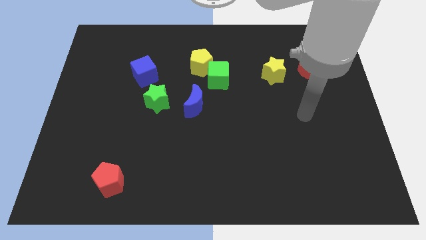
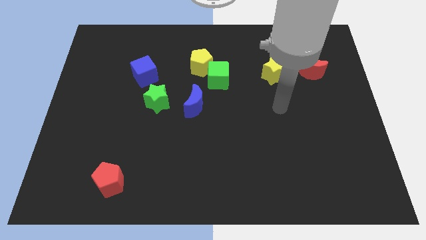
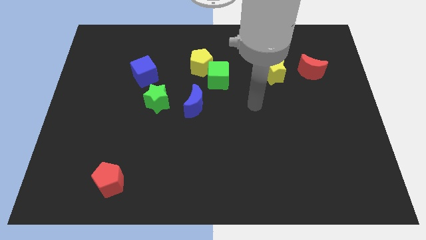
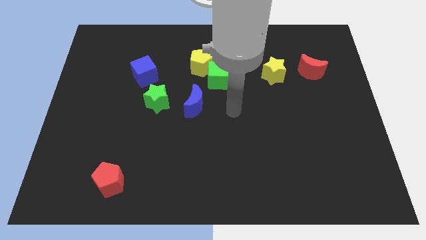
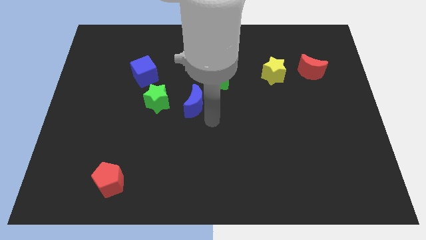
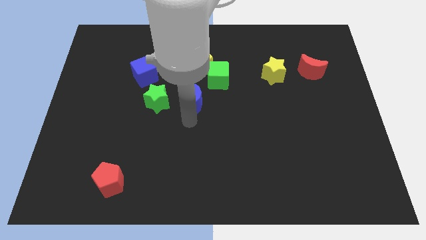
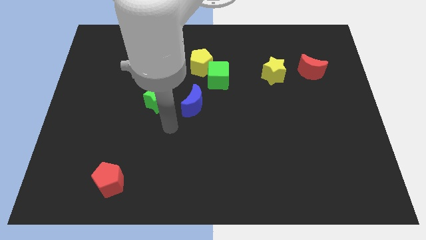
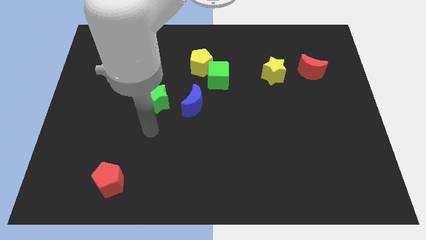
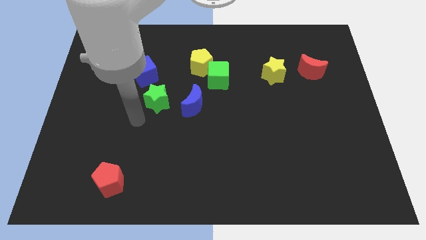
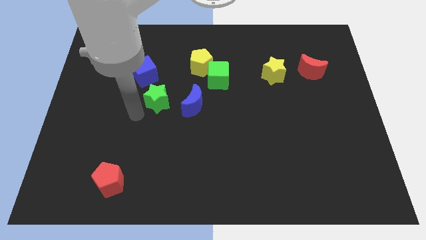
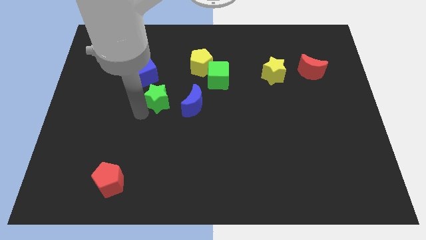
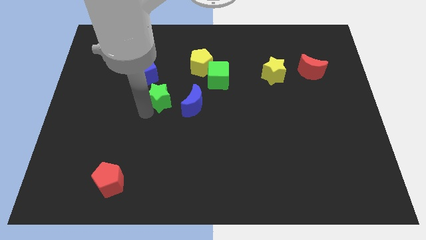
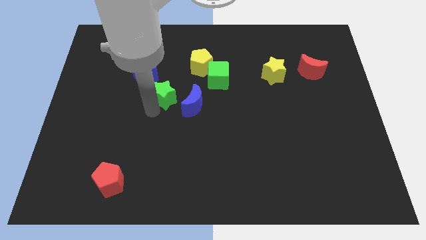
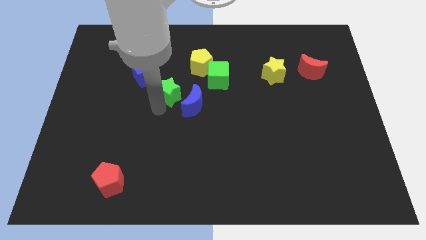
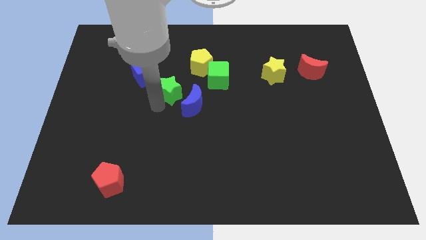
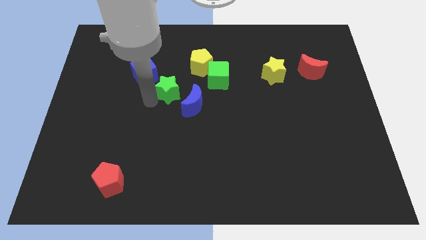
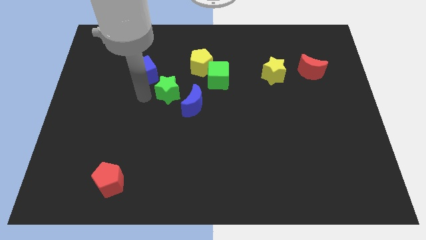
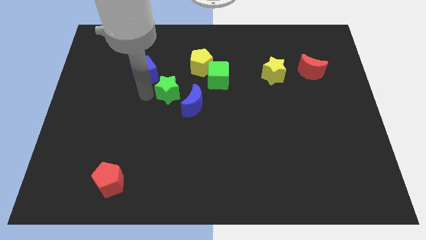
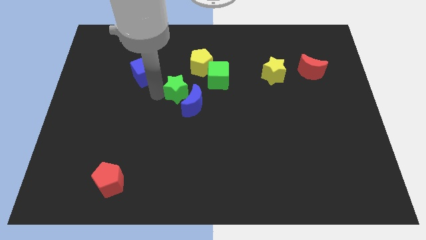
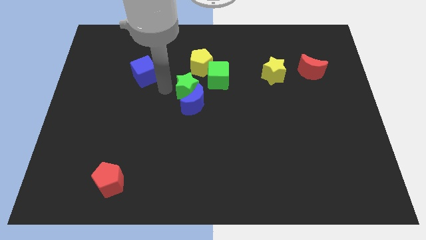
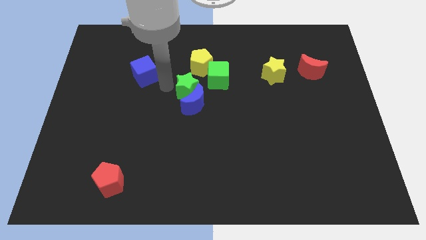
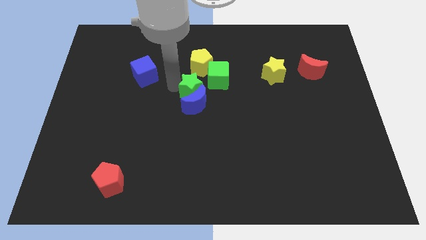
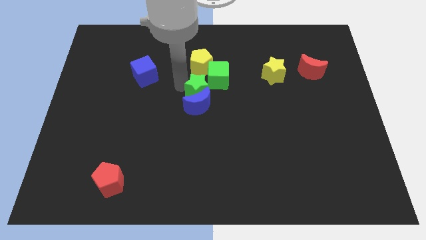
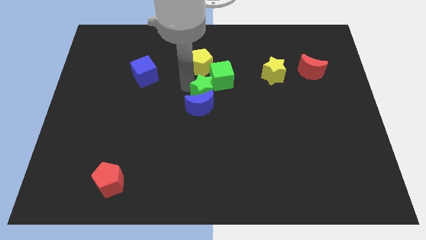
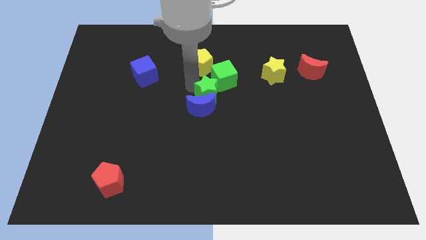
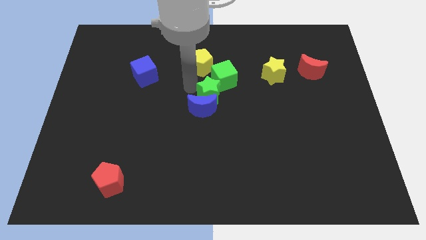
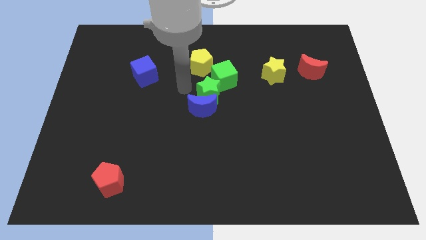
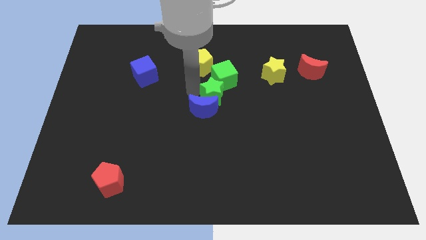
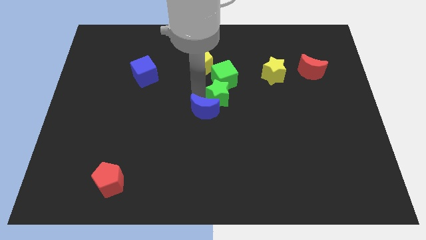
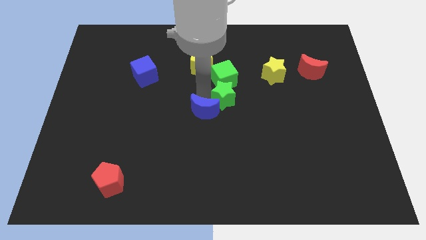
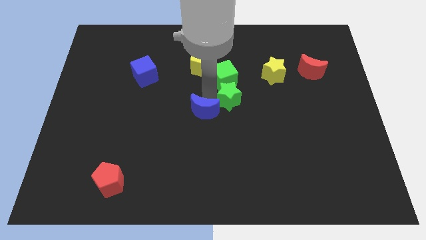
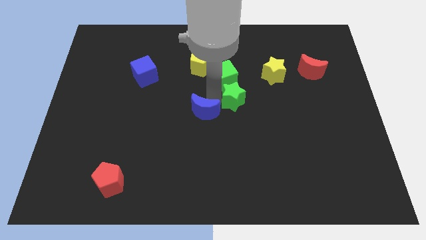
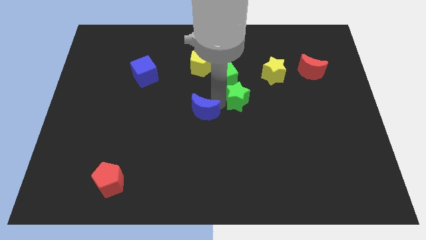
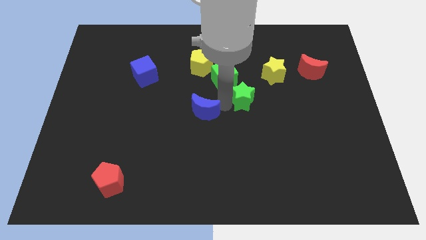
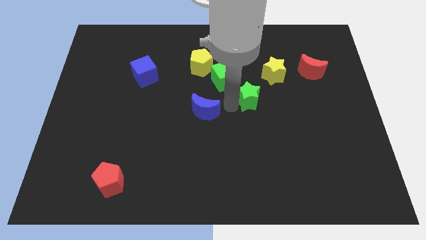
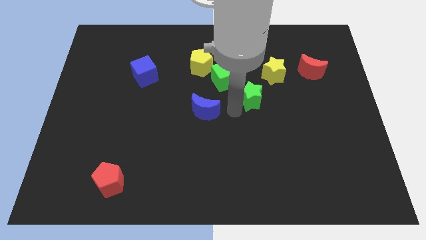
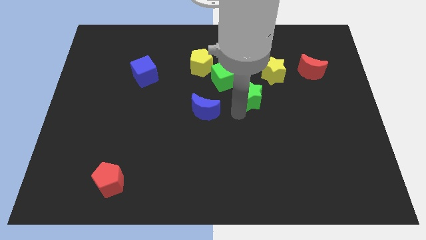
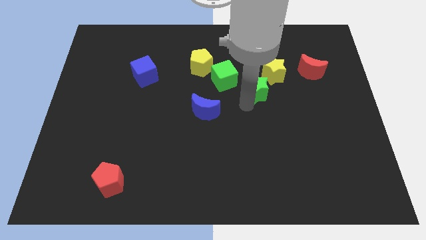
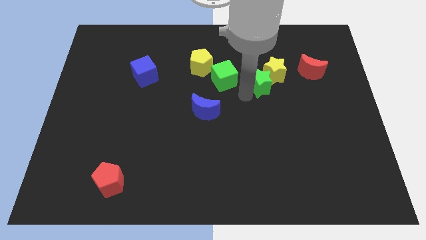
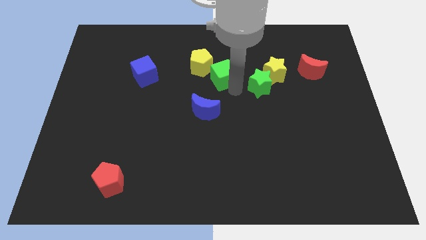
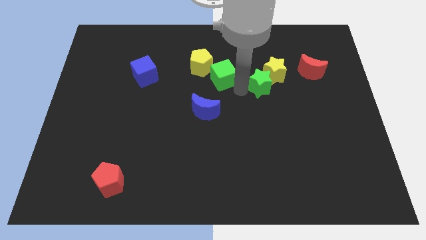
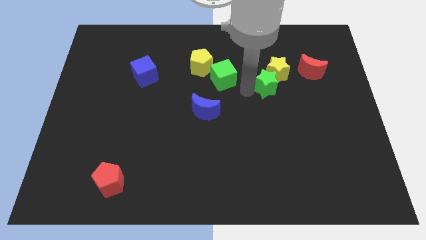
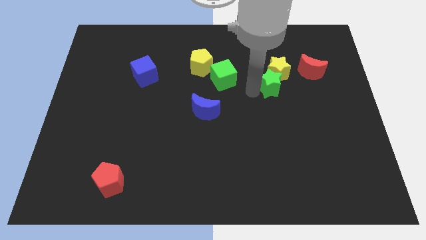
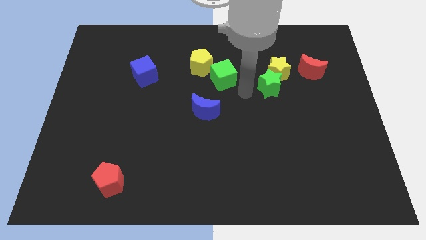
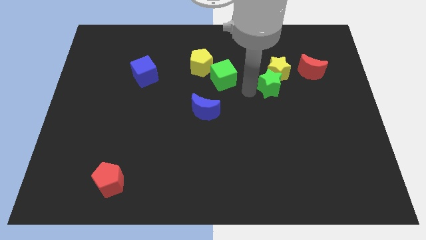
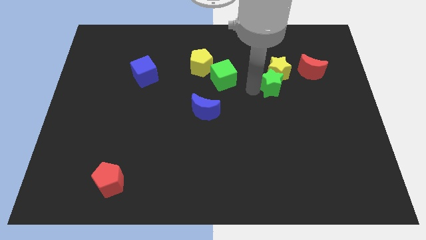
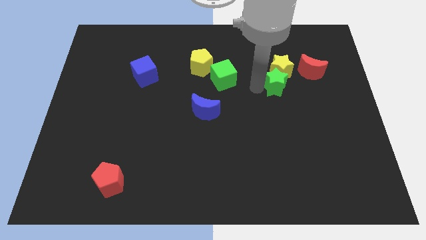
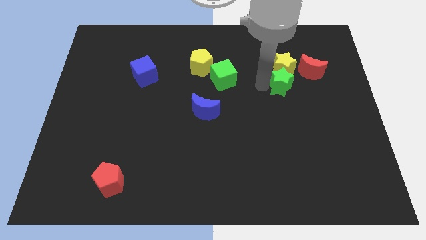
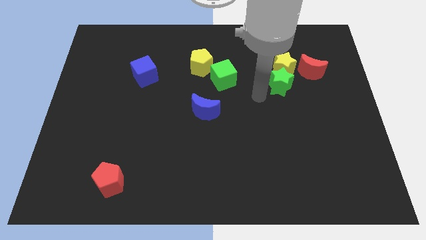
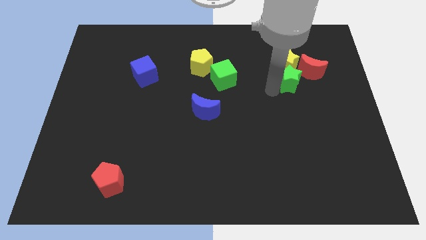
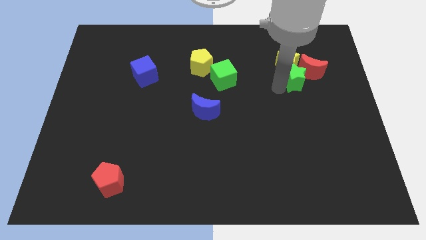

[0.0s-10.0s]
push the green star close to the red moon

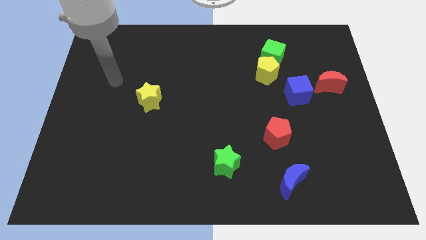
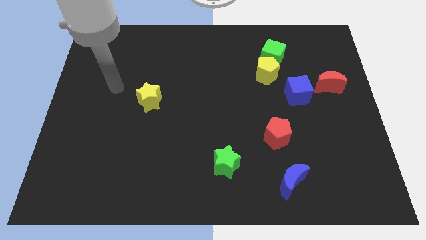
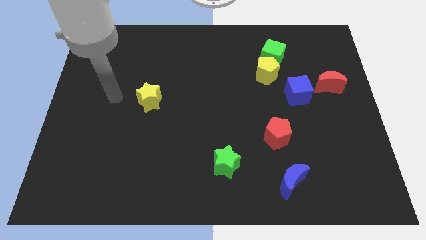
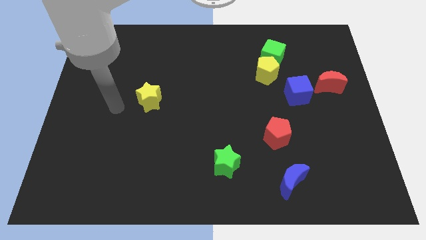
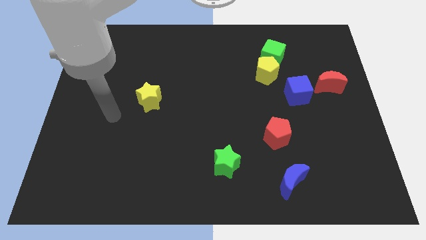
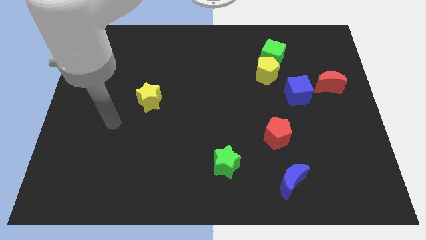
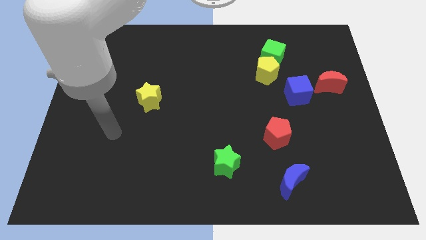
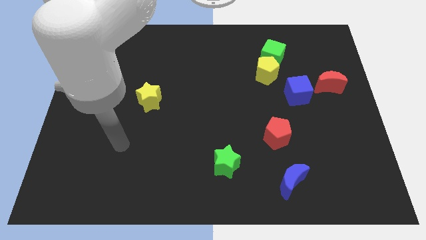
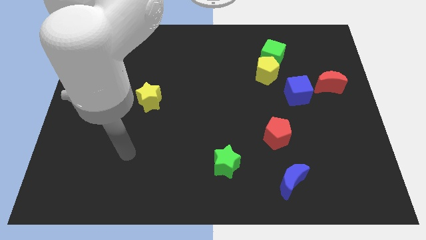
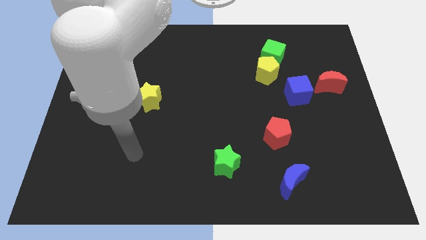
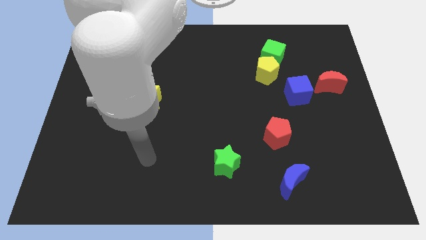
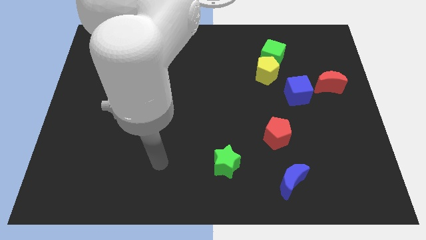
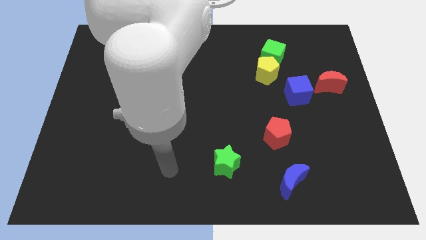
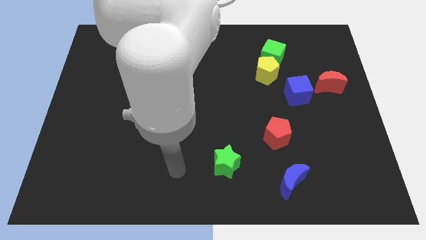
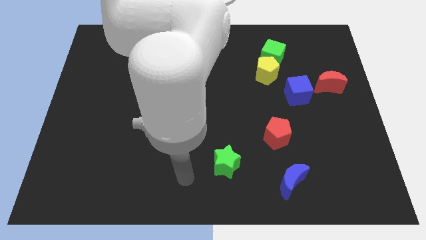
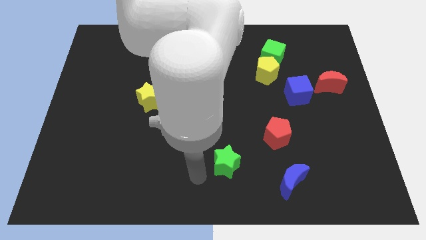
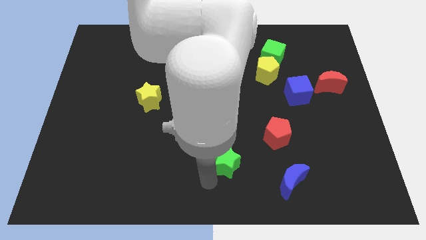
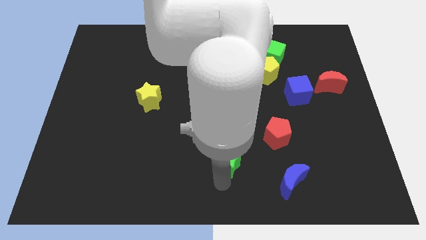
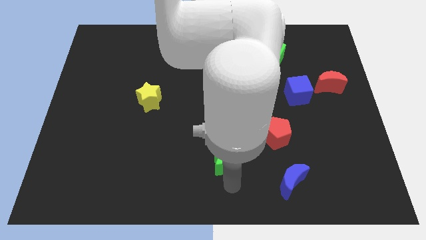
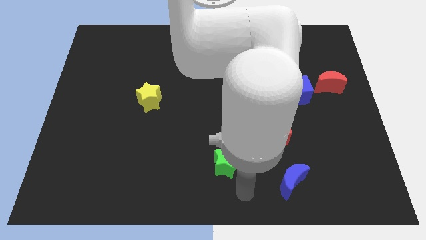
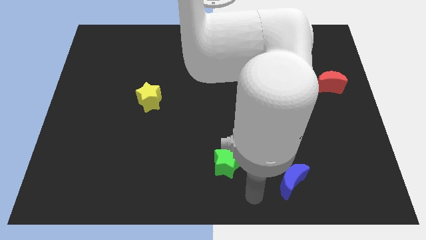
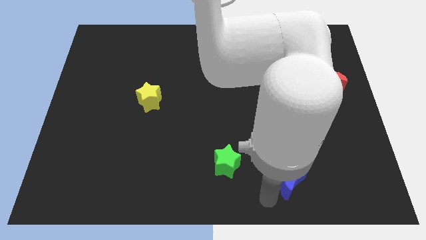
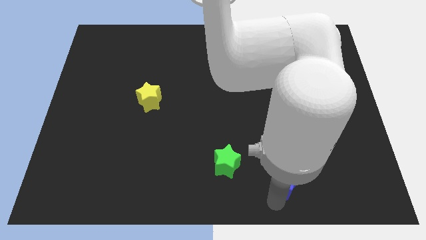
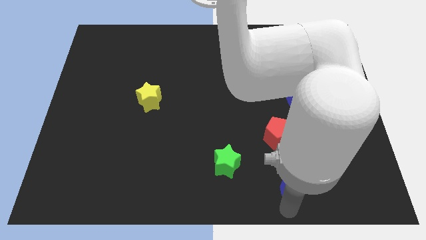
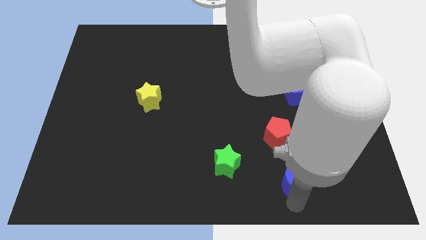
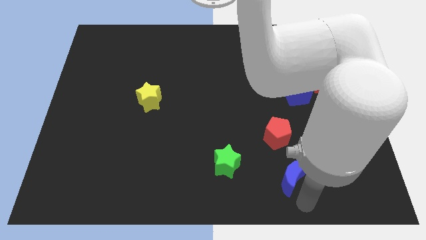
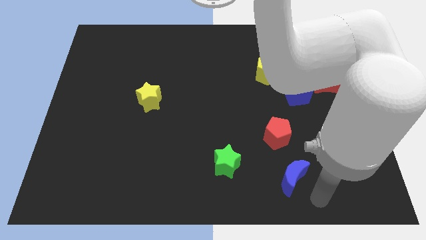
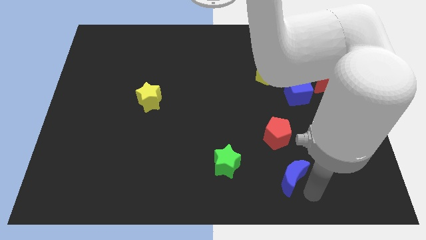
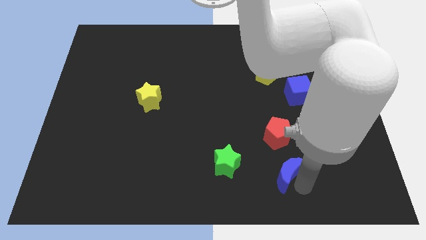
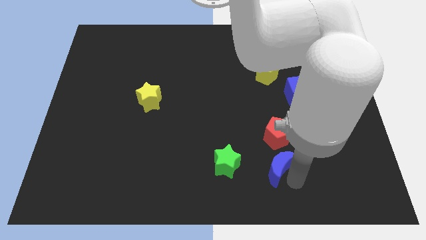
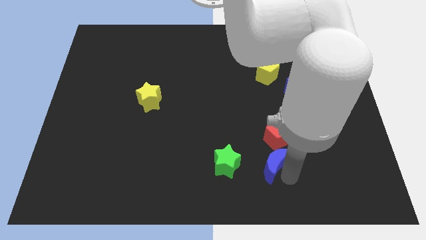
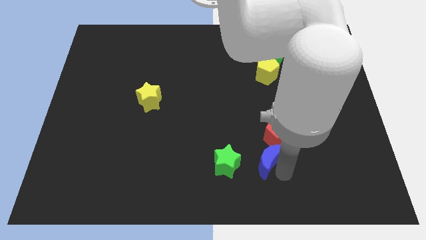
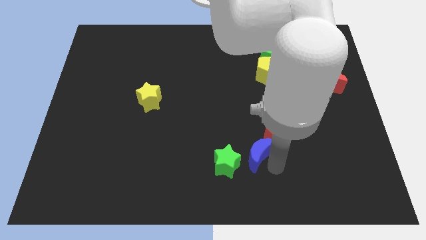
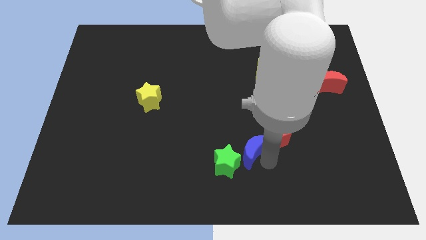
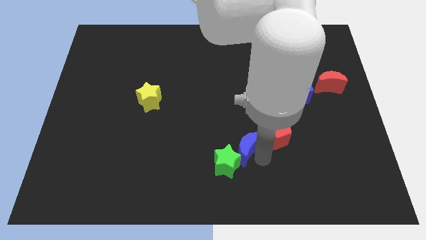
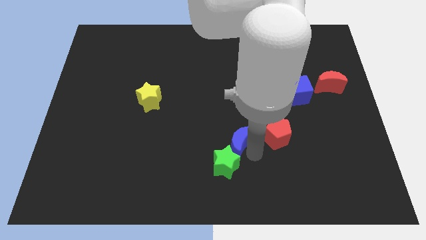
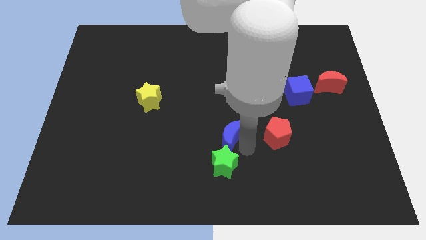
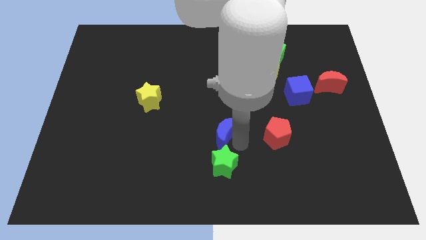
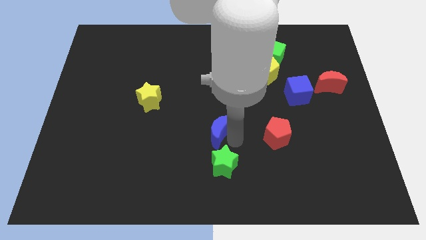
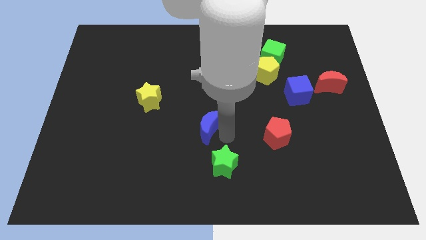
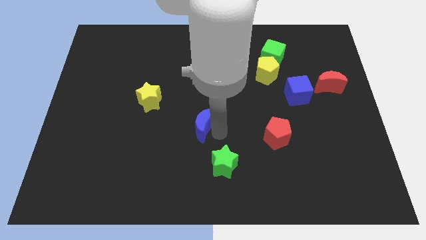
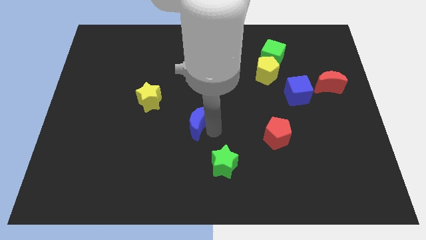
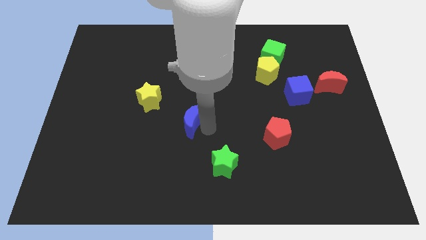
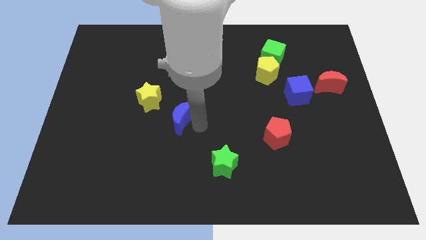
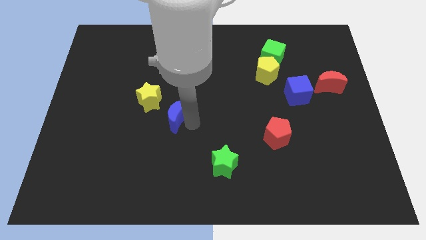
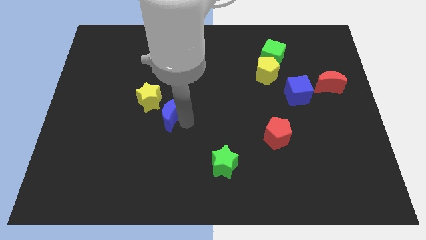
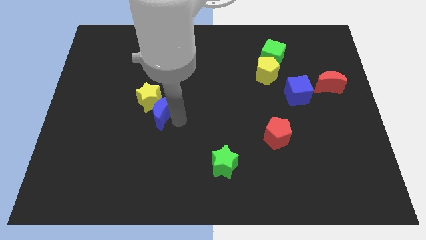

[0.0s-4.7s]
push the blue moon to the yellow star
